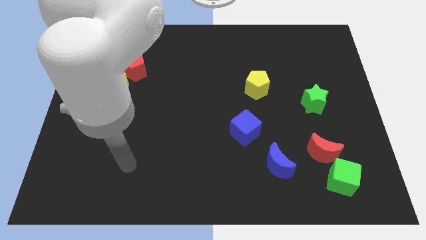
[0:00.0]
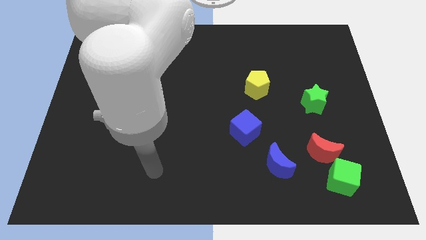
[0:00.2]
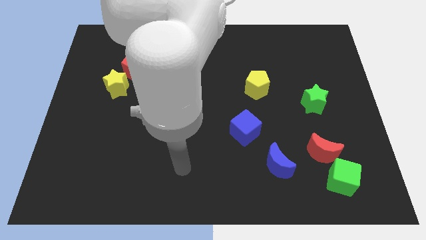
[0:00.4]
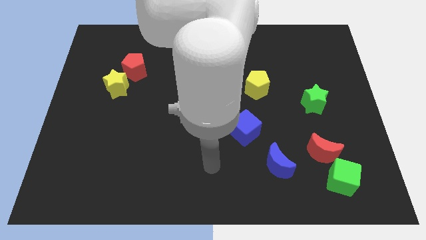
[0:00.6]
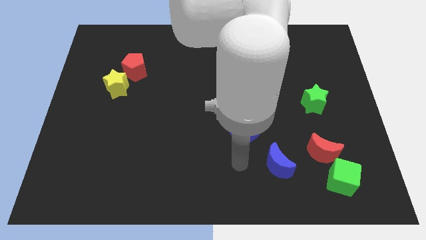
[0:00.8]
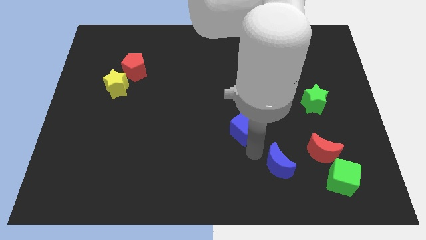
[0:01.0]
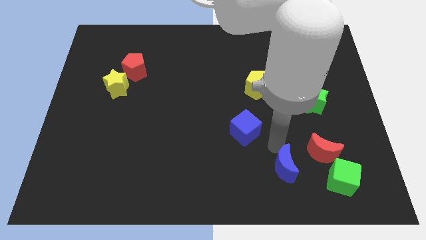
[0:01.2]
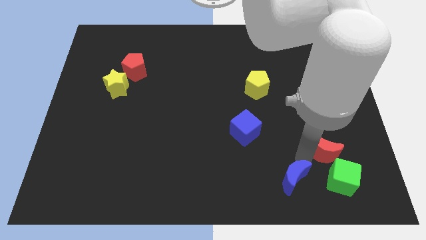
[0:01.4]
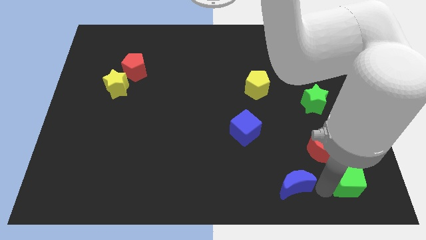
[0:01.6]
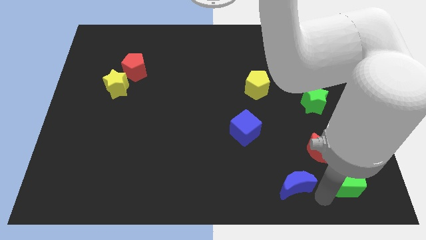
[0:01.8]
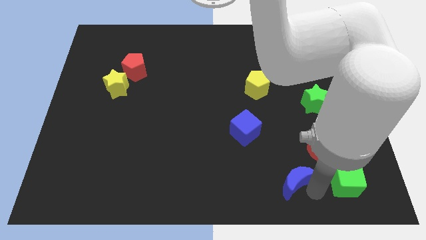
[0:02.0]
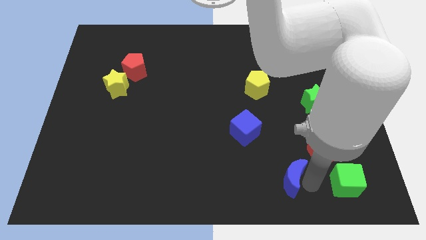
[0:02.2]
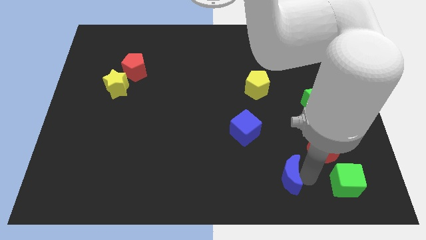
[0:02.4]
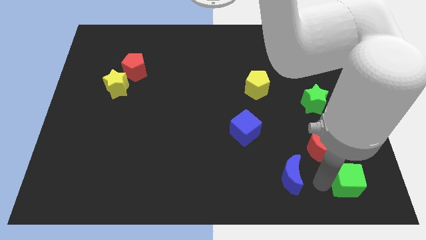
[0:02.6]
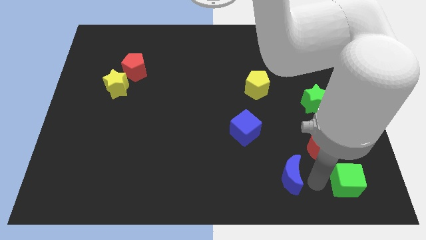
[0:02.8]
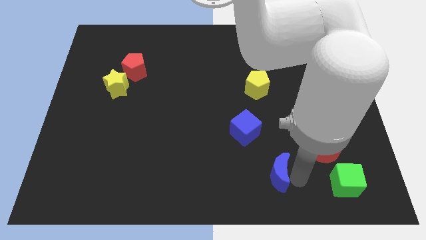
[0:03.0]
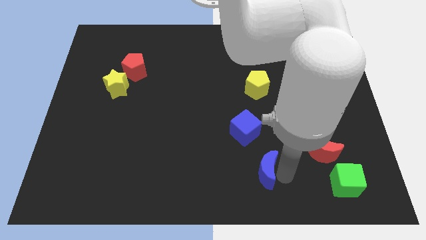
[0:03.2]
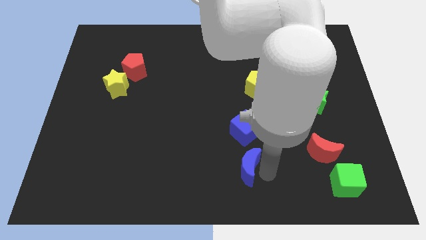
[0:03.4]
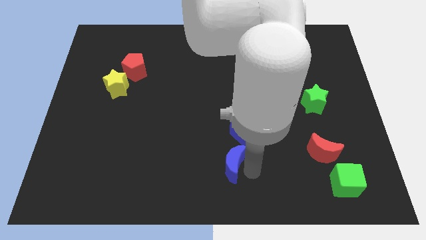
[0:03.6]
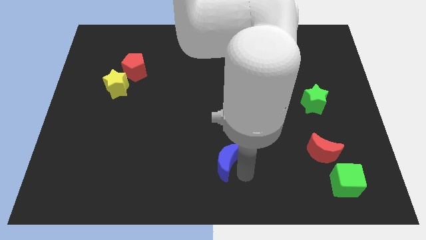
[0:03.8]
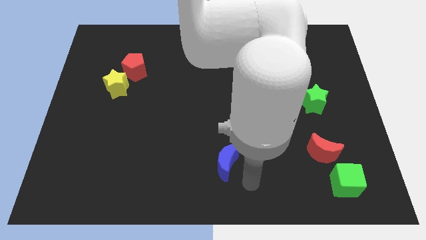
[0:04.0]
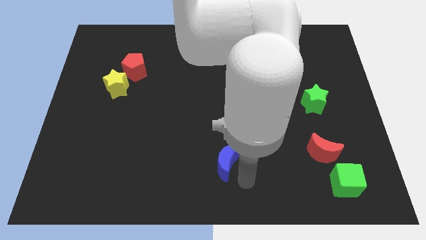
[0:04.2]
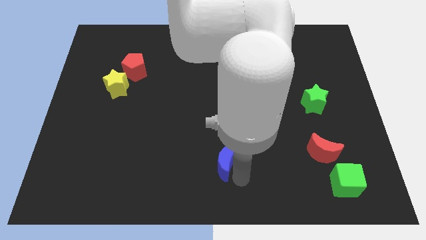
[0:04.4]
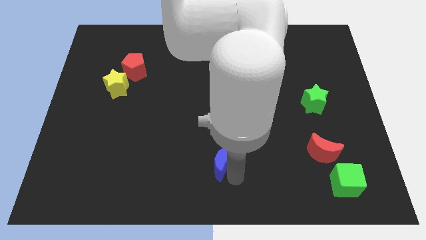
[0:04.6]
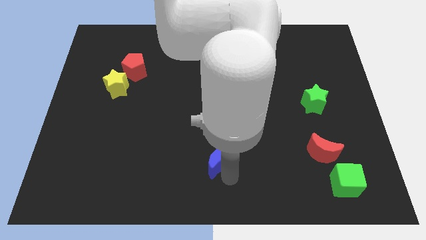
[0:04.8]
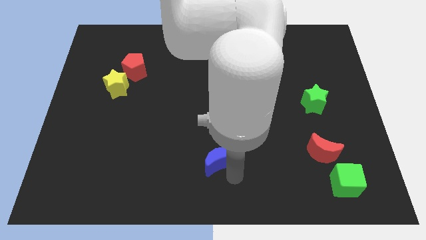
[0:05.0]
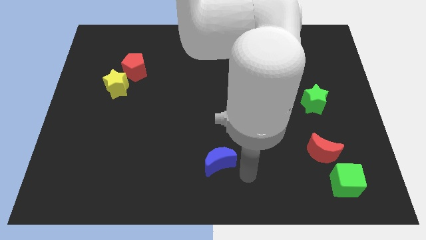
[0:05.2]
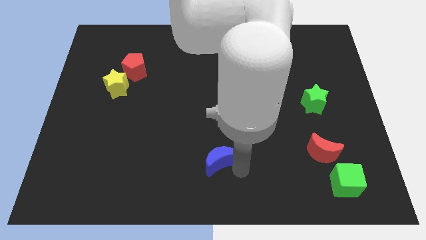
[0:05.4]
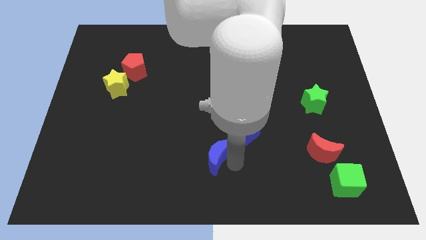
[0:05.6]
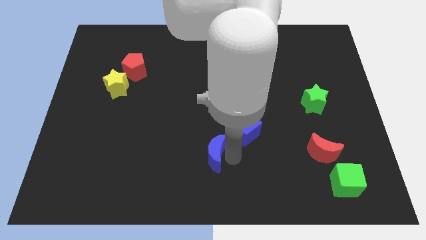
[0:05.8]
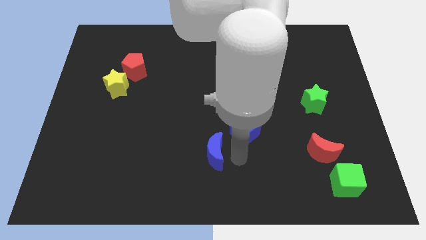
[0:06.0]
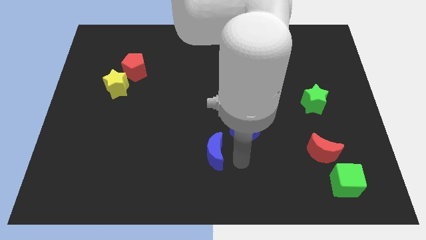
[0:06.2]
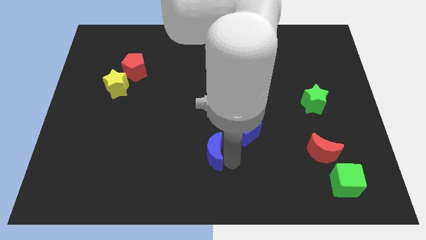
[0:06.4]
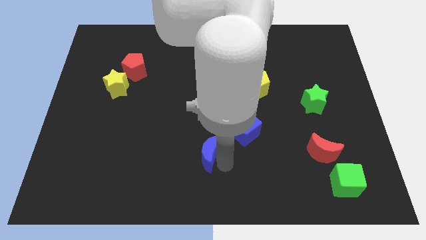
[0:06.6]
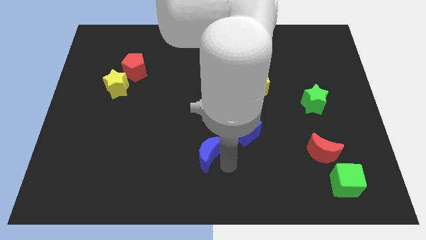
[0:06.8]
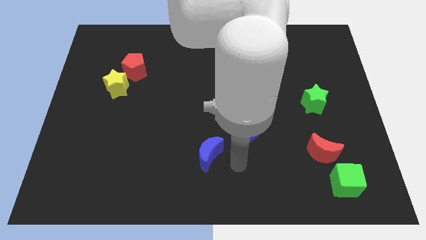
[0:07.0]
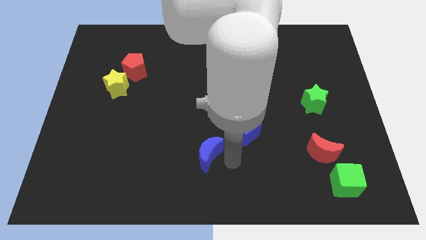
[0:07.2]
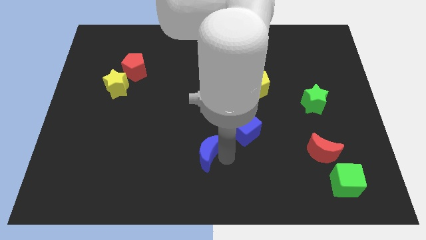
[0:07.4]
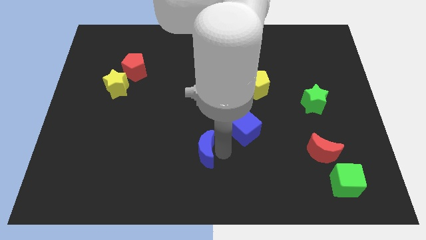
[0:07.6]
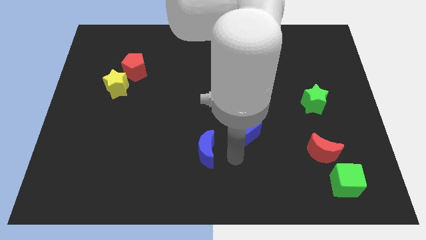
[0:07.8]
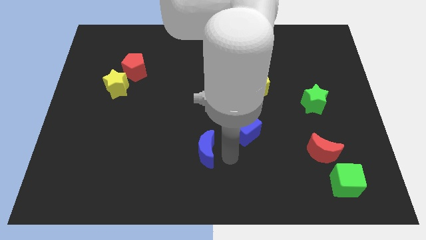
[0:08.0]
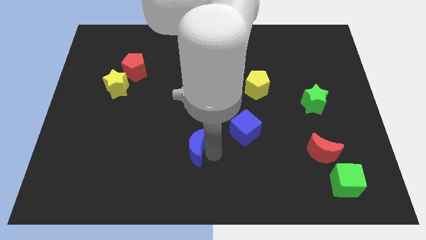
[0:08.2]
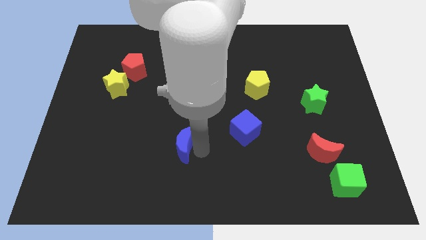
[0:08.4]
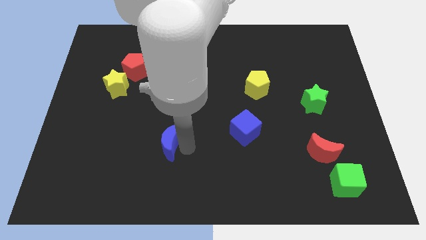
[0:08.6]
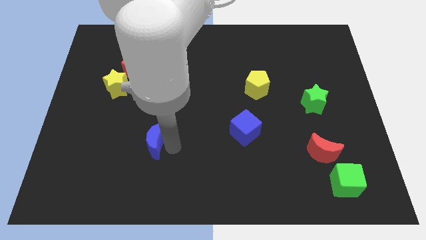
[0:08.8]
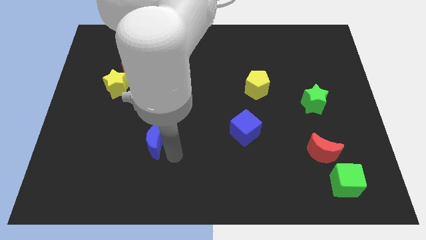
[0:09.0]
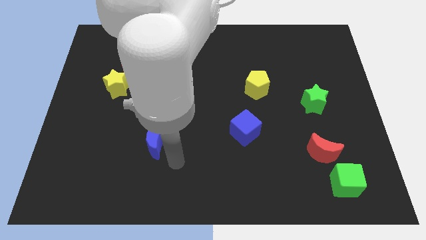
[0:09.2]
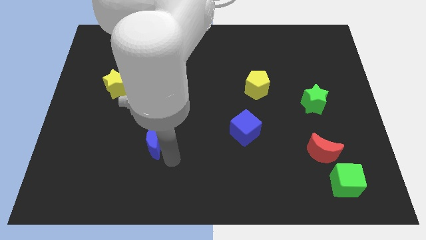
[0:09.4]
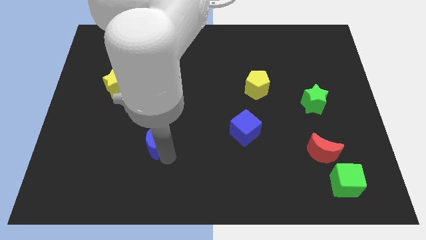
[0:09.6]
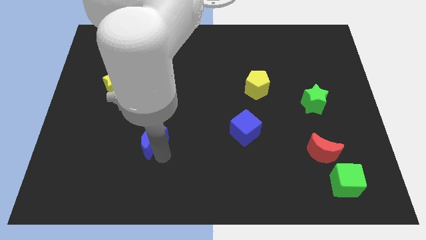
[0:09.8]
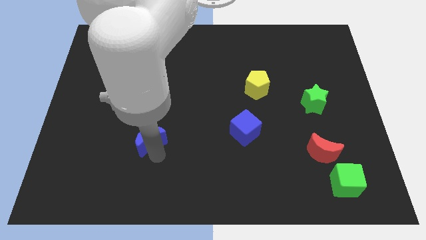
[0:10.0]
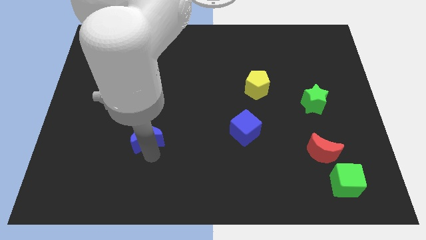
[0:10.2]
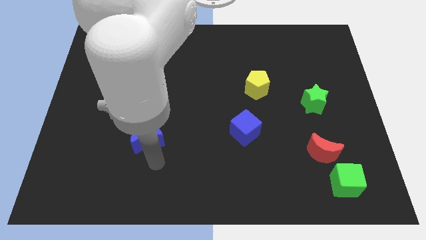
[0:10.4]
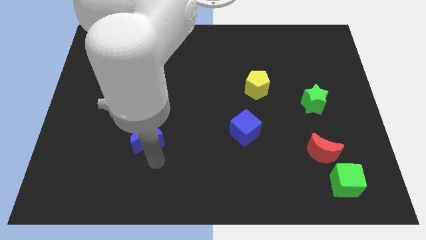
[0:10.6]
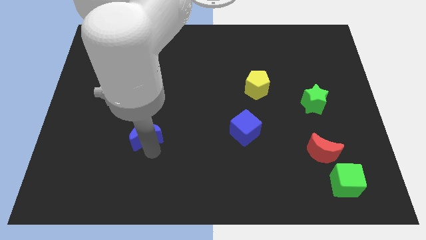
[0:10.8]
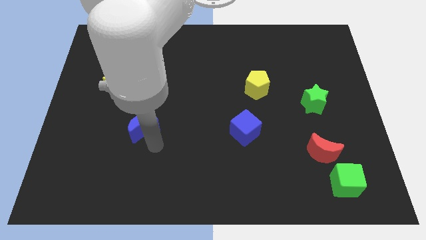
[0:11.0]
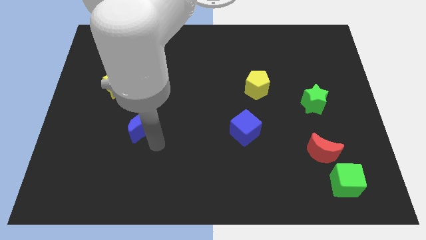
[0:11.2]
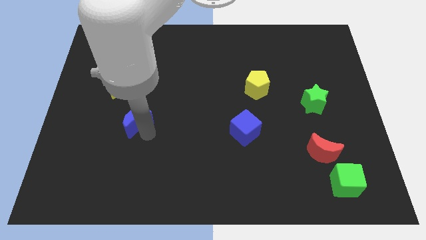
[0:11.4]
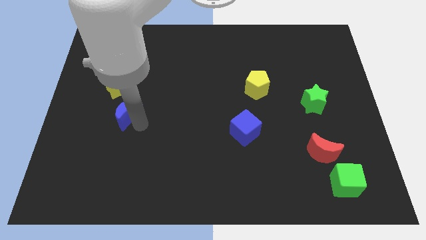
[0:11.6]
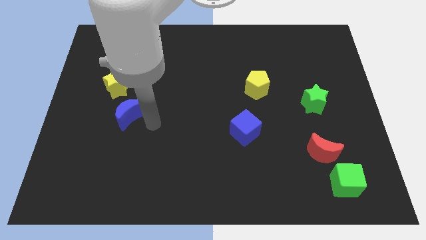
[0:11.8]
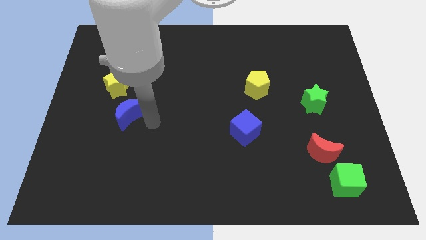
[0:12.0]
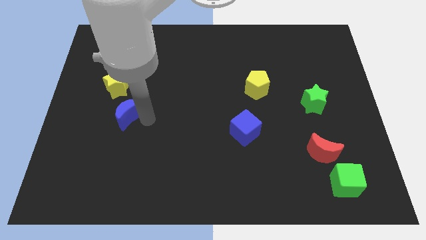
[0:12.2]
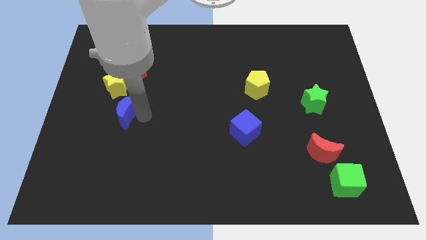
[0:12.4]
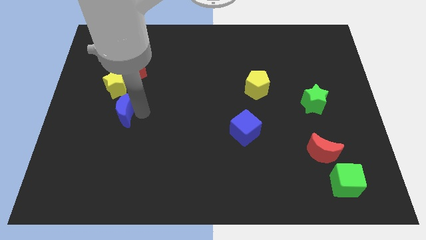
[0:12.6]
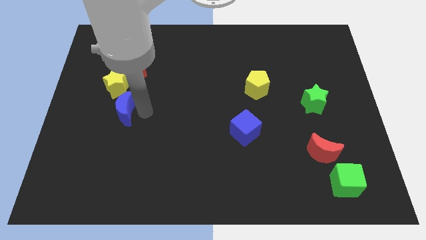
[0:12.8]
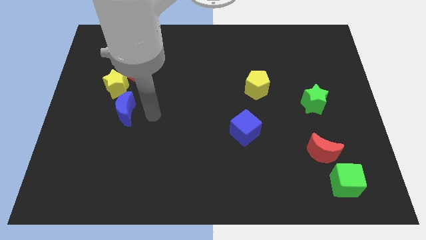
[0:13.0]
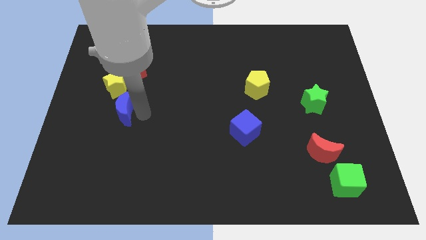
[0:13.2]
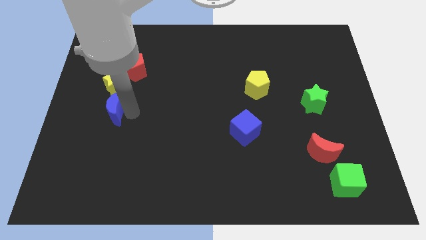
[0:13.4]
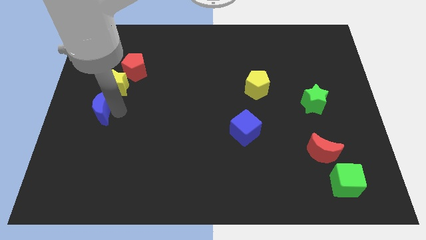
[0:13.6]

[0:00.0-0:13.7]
push the blue moon to the left side of the board

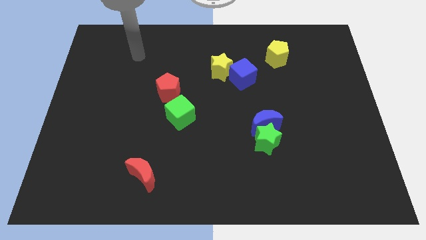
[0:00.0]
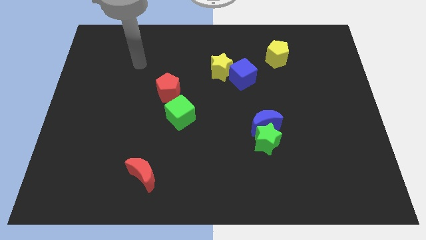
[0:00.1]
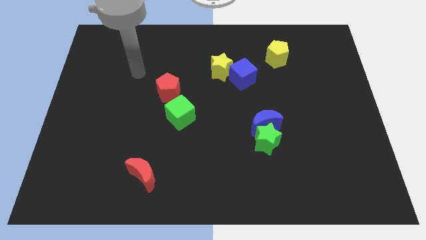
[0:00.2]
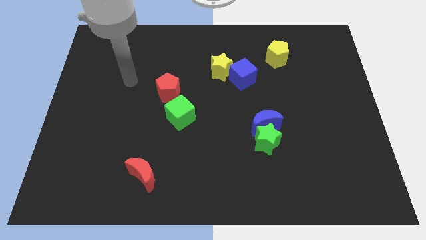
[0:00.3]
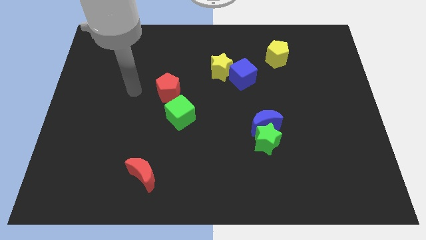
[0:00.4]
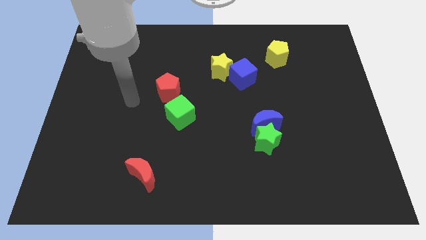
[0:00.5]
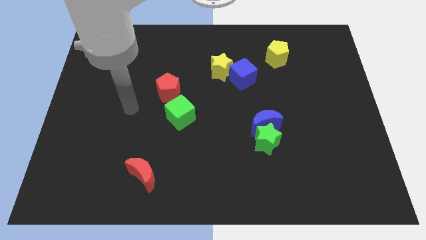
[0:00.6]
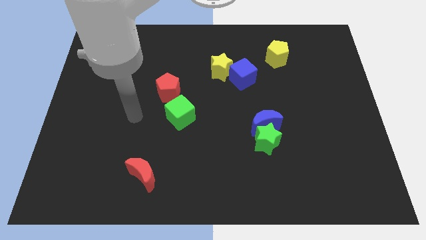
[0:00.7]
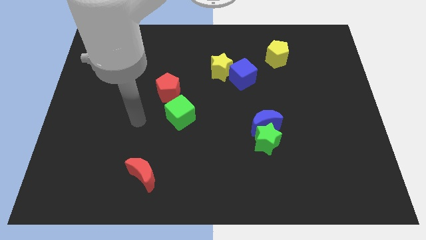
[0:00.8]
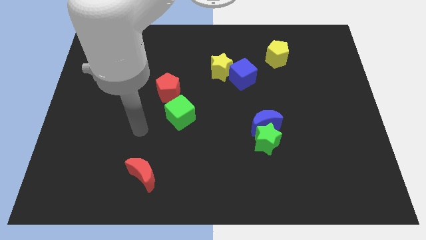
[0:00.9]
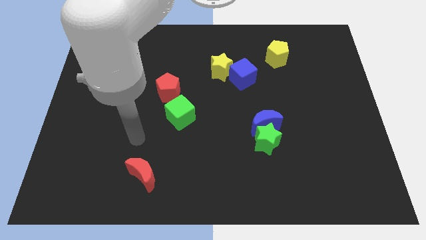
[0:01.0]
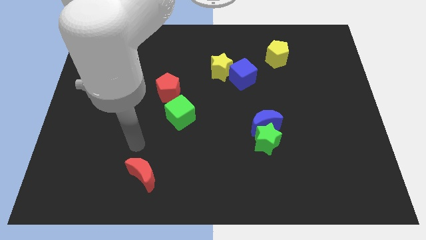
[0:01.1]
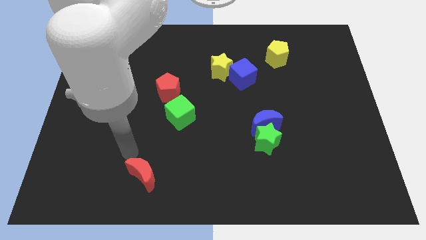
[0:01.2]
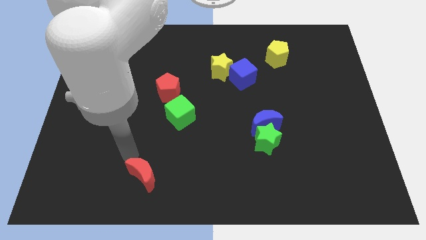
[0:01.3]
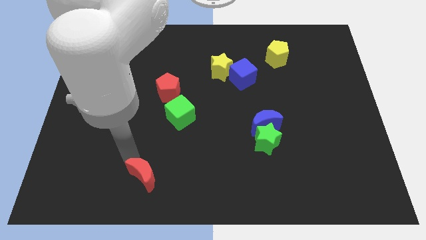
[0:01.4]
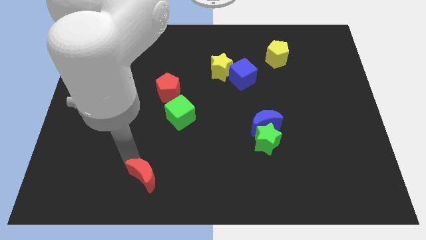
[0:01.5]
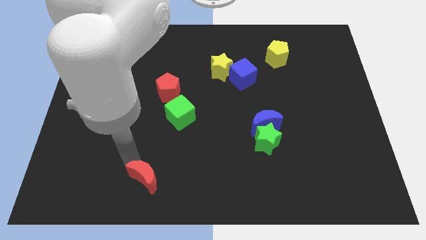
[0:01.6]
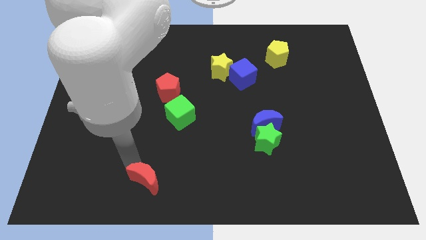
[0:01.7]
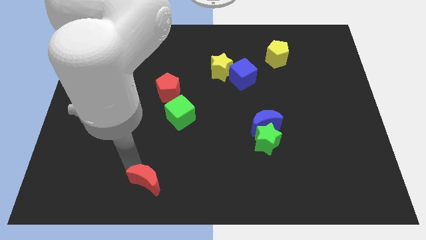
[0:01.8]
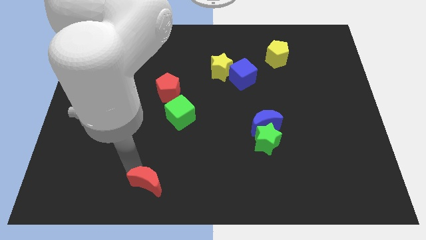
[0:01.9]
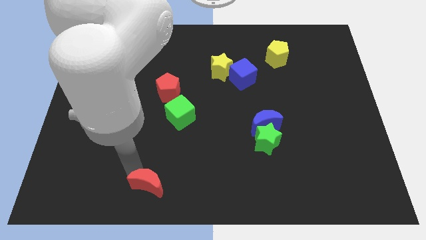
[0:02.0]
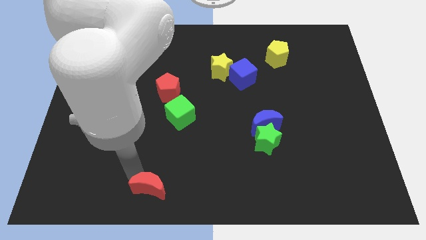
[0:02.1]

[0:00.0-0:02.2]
push the red moon to the bottom
